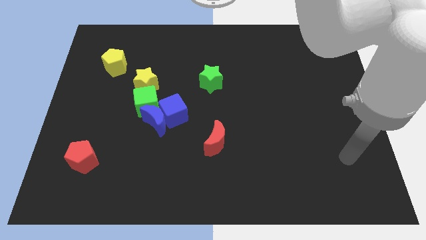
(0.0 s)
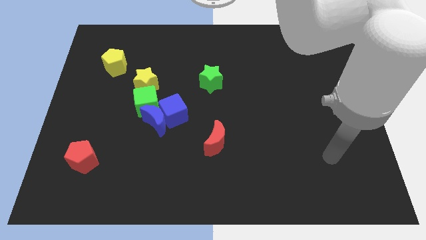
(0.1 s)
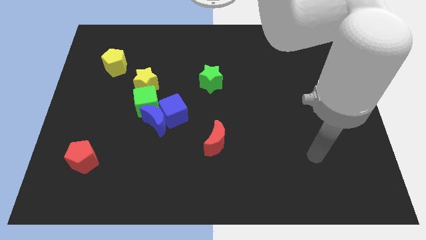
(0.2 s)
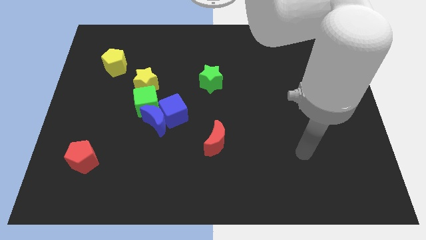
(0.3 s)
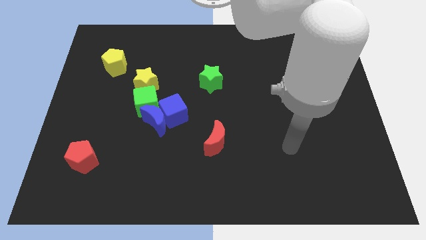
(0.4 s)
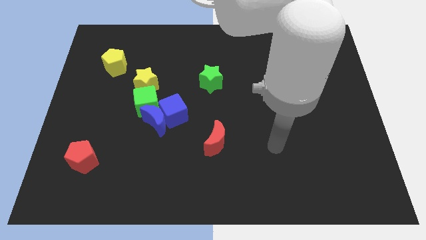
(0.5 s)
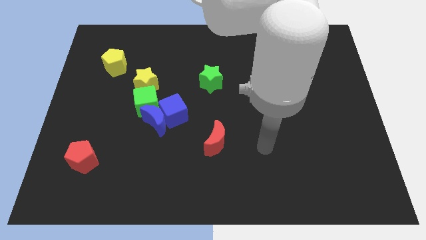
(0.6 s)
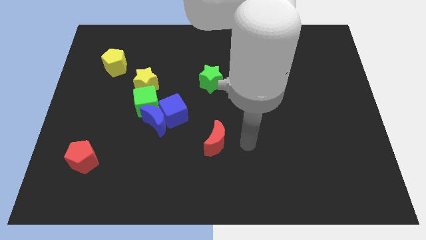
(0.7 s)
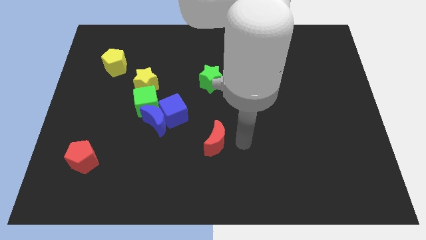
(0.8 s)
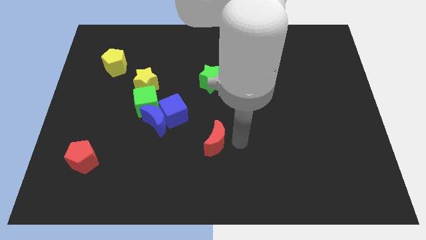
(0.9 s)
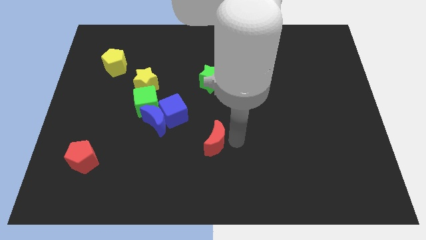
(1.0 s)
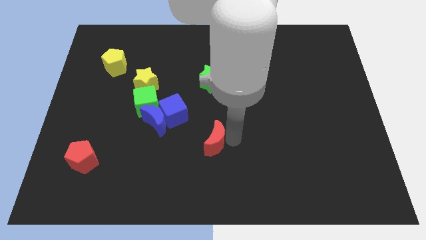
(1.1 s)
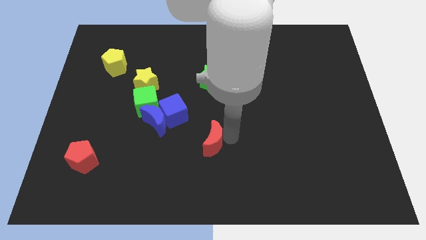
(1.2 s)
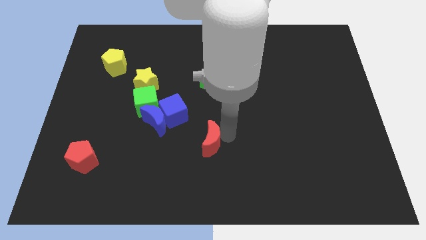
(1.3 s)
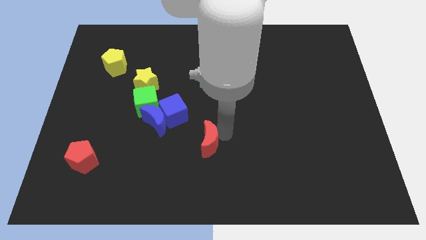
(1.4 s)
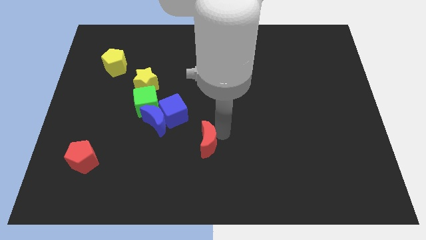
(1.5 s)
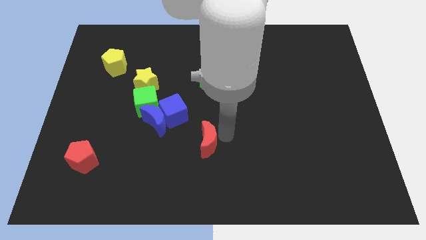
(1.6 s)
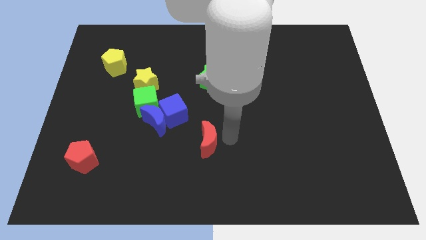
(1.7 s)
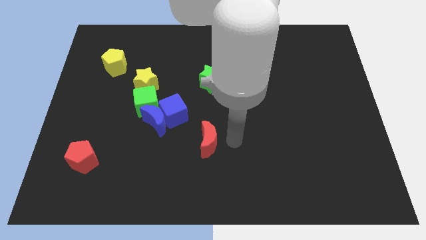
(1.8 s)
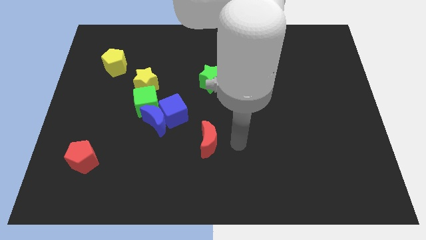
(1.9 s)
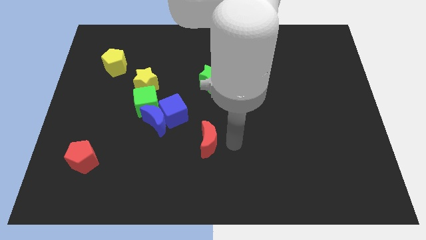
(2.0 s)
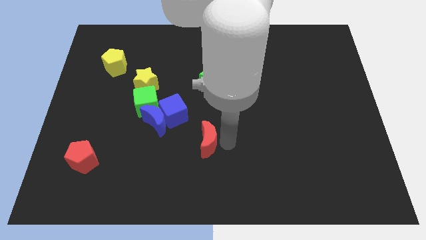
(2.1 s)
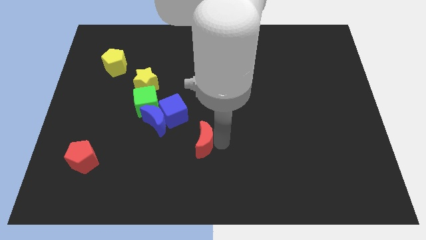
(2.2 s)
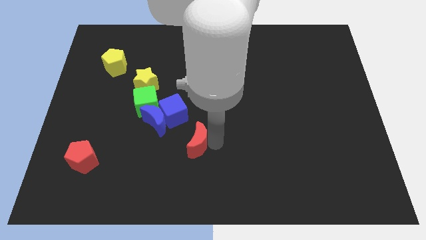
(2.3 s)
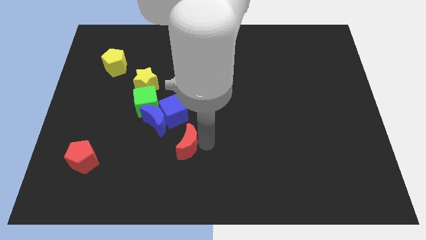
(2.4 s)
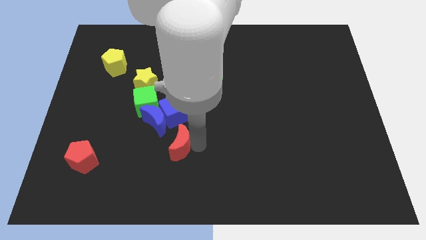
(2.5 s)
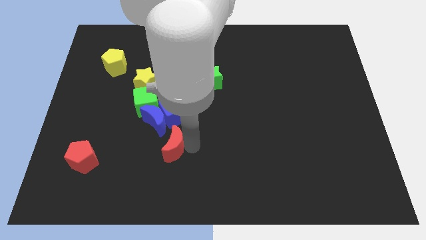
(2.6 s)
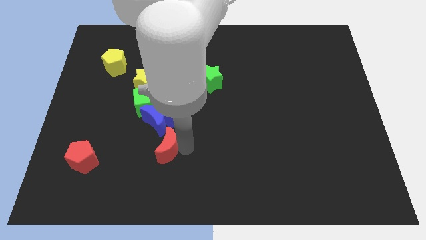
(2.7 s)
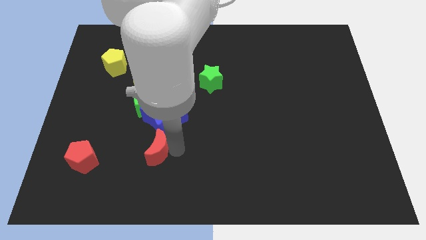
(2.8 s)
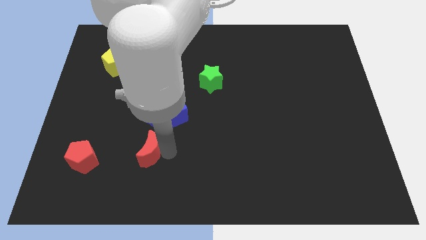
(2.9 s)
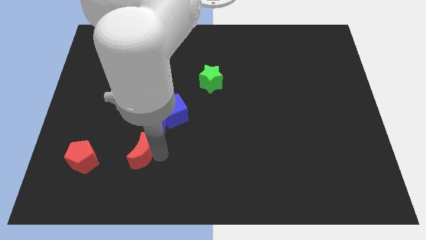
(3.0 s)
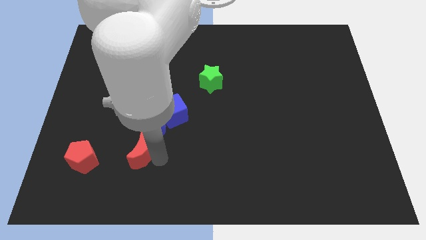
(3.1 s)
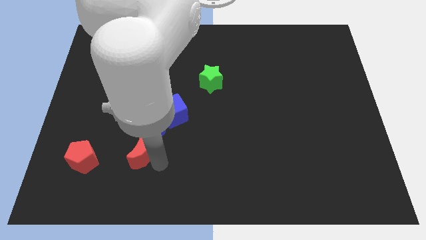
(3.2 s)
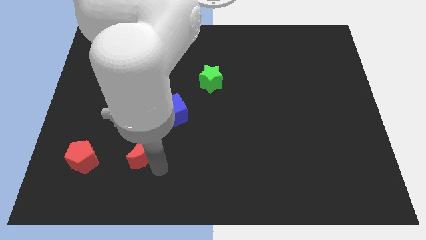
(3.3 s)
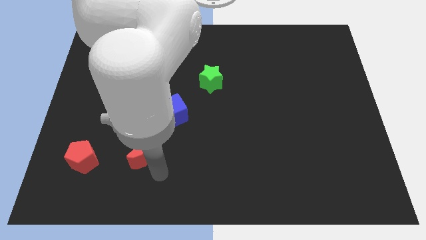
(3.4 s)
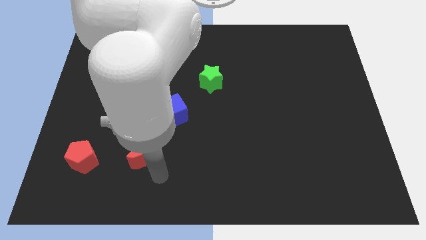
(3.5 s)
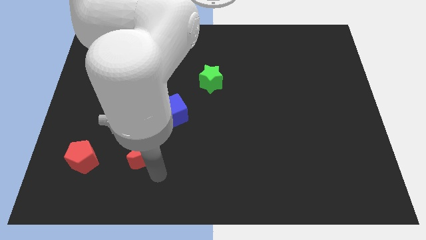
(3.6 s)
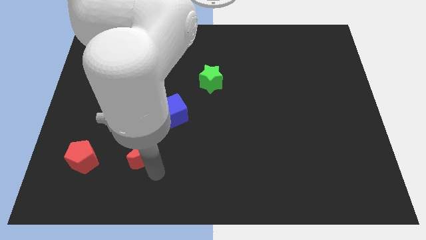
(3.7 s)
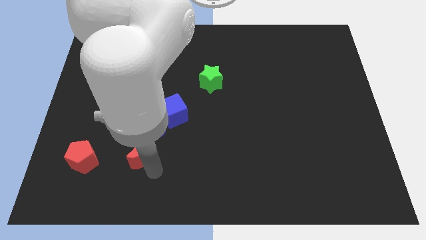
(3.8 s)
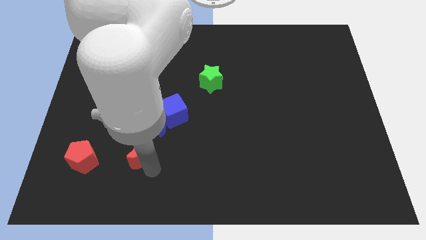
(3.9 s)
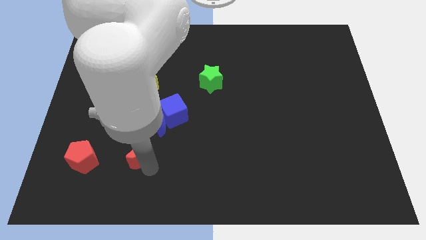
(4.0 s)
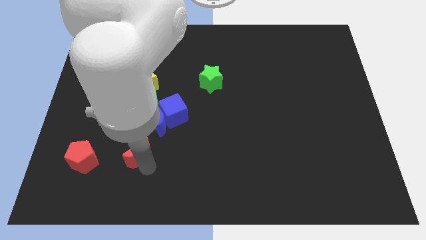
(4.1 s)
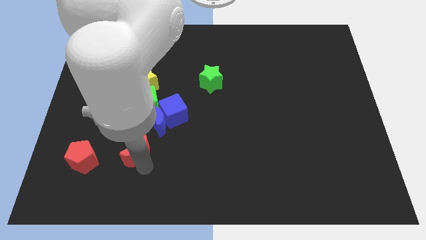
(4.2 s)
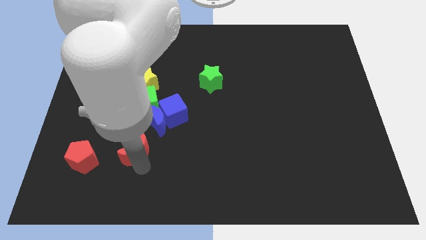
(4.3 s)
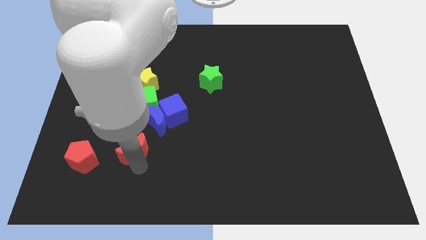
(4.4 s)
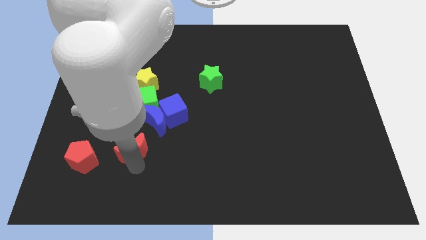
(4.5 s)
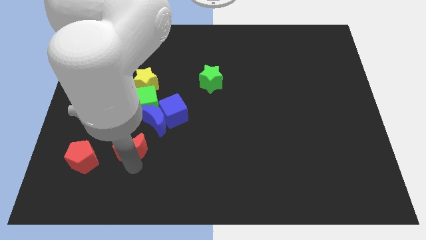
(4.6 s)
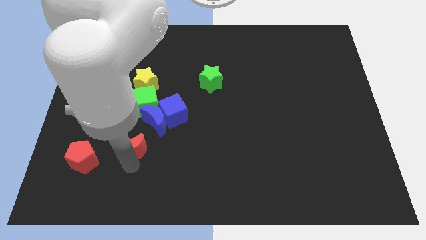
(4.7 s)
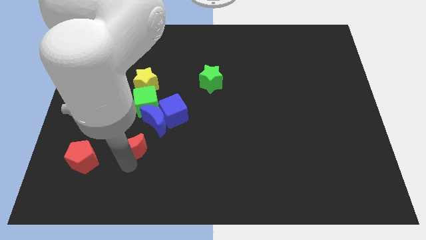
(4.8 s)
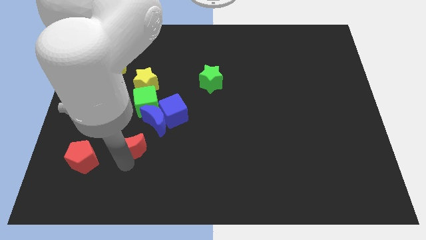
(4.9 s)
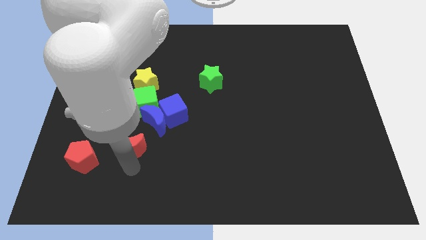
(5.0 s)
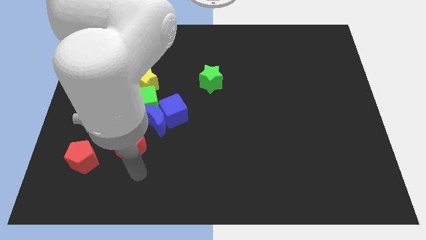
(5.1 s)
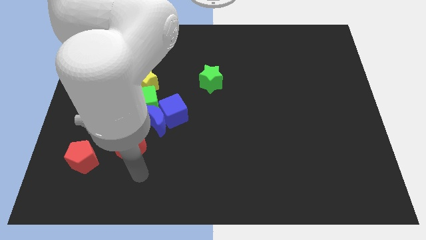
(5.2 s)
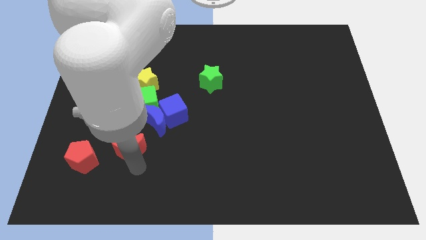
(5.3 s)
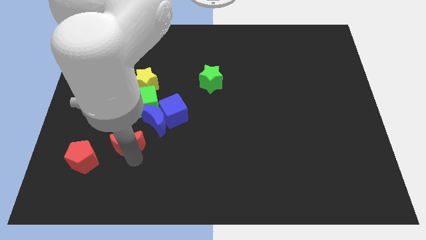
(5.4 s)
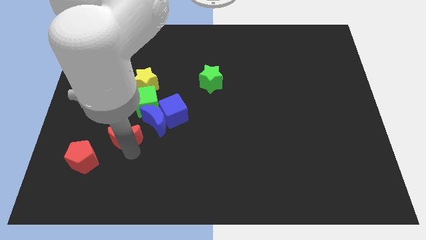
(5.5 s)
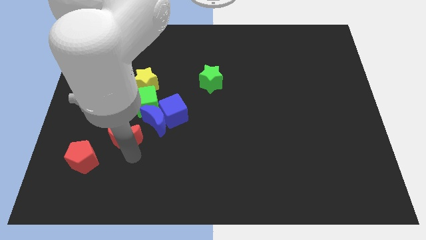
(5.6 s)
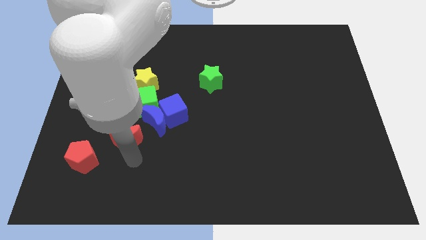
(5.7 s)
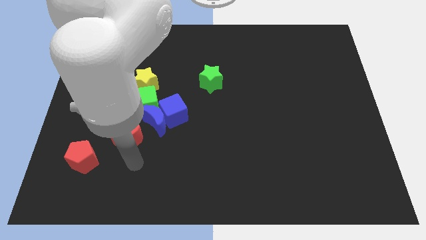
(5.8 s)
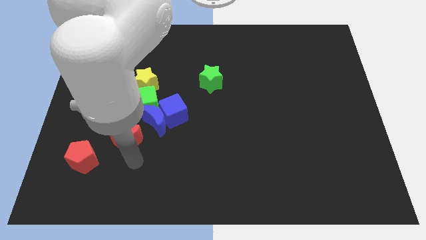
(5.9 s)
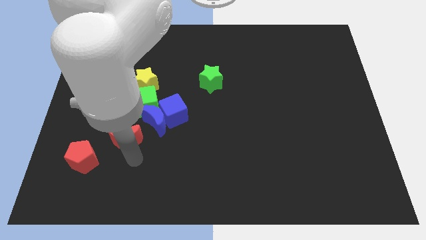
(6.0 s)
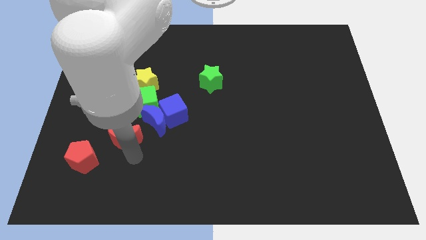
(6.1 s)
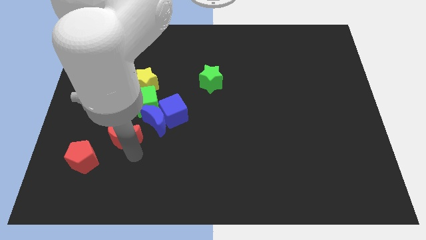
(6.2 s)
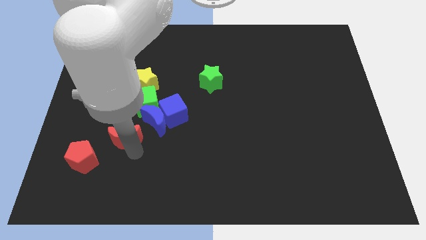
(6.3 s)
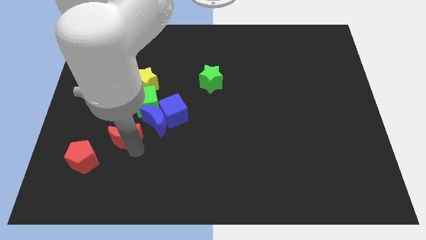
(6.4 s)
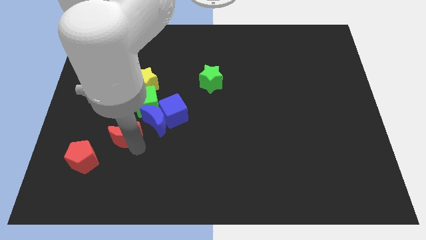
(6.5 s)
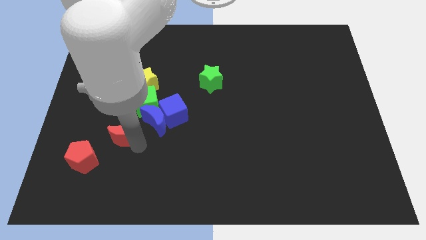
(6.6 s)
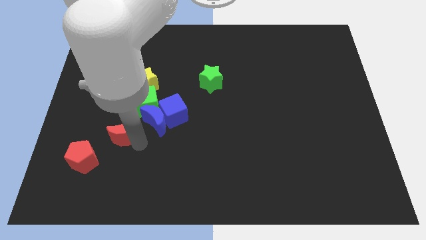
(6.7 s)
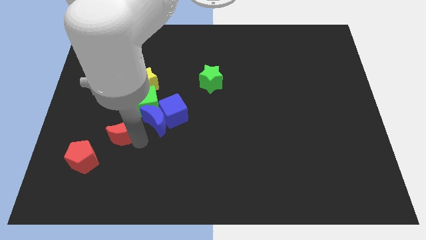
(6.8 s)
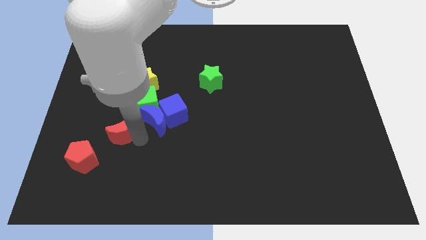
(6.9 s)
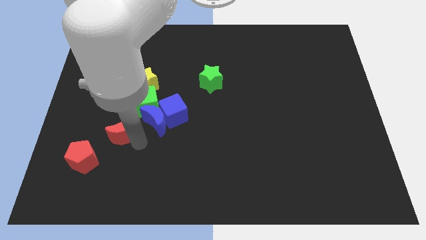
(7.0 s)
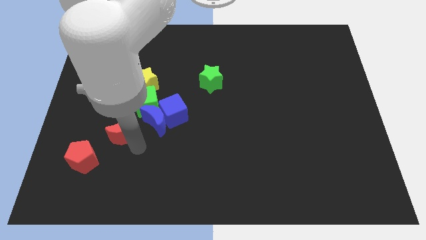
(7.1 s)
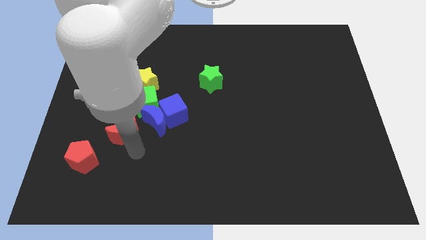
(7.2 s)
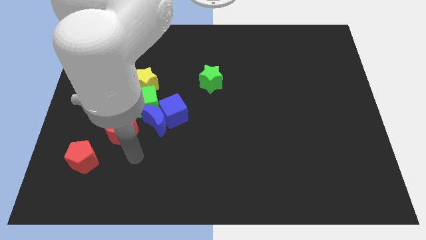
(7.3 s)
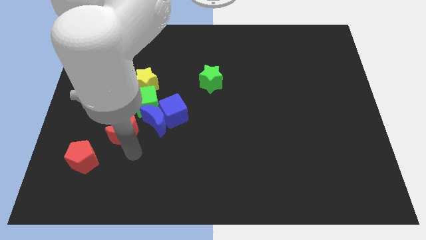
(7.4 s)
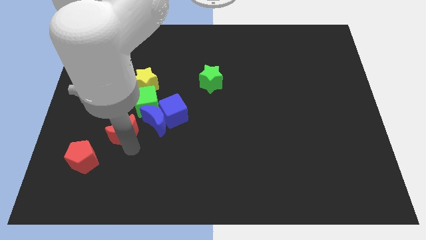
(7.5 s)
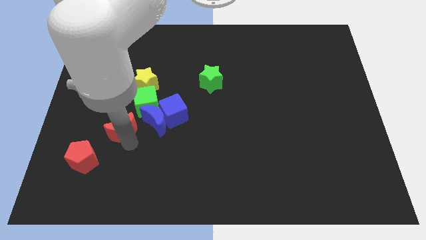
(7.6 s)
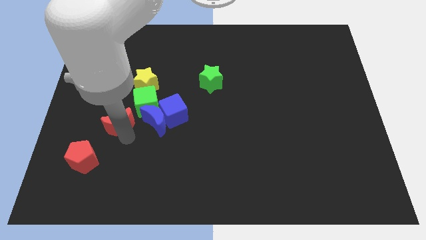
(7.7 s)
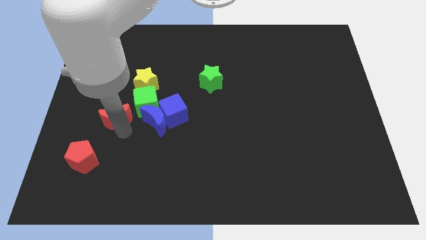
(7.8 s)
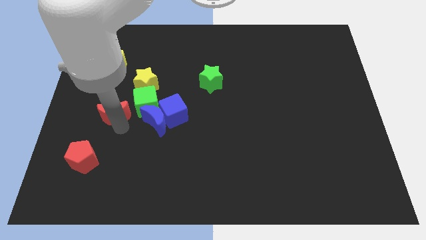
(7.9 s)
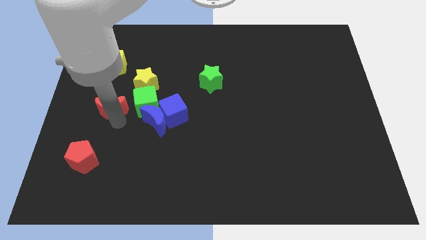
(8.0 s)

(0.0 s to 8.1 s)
move the red moon below the yellow pentagon
